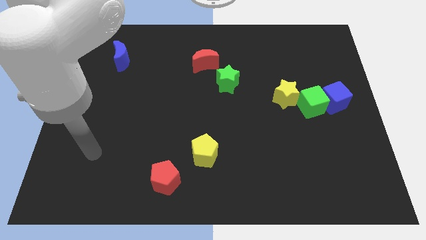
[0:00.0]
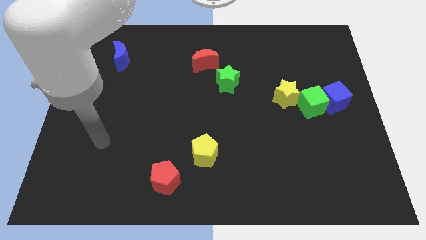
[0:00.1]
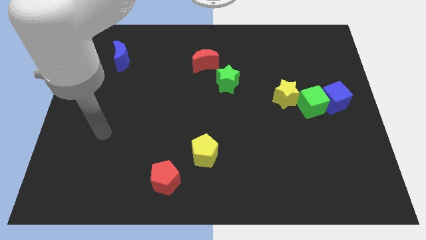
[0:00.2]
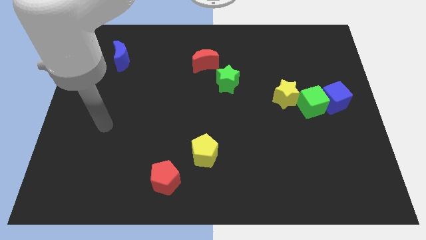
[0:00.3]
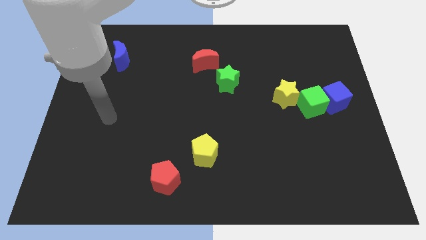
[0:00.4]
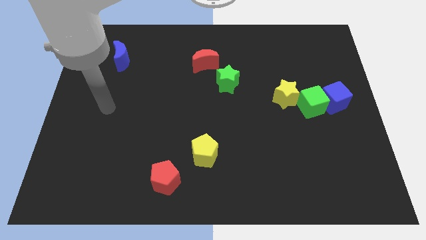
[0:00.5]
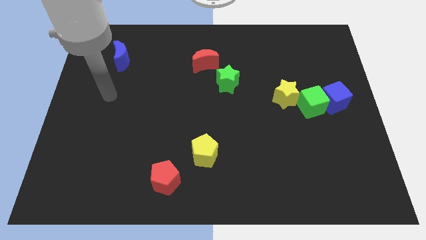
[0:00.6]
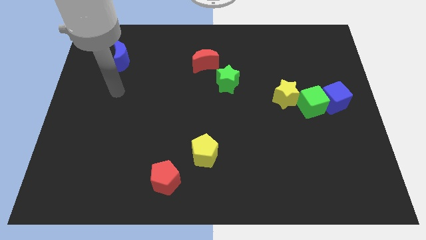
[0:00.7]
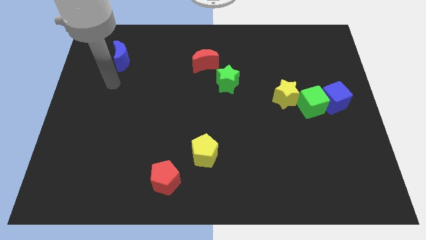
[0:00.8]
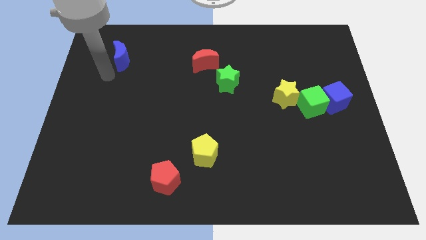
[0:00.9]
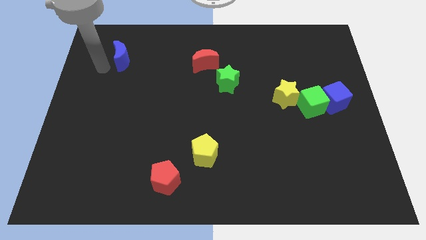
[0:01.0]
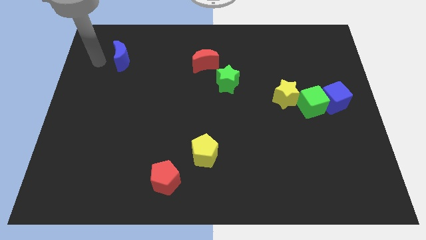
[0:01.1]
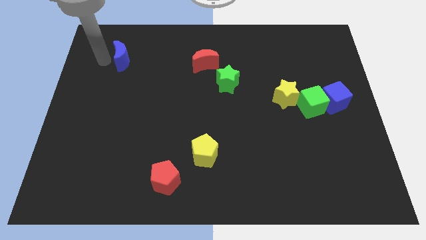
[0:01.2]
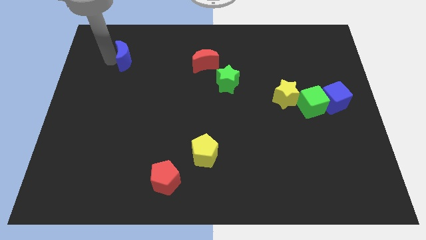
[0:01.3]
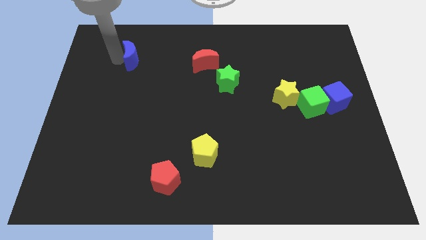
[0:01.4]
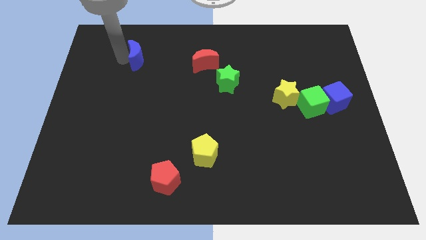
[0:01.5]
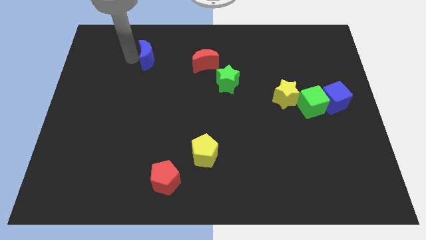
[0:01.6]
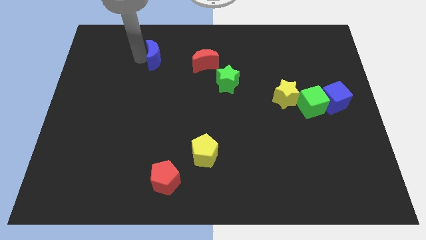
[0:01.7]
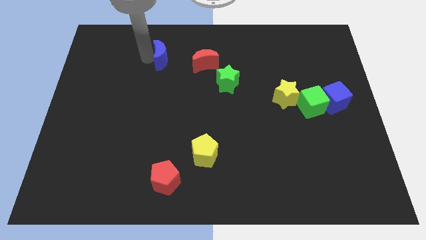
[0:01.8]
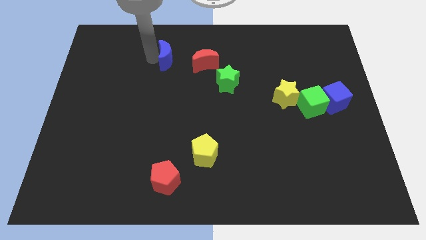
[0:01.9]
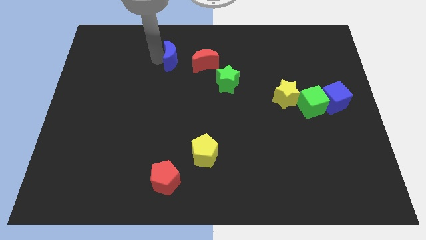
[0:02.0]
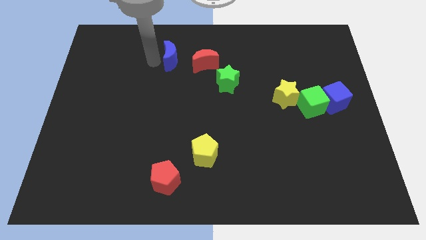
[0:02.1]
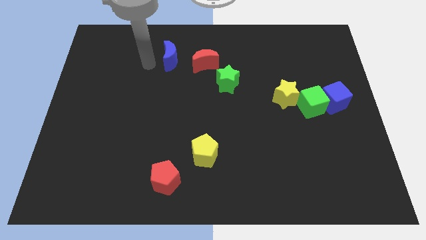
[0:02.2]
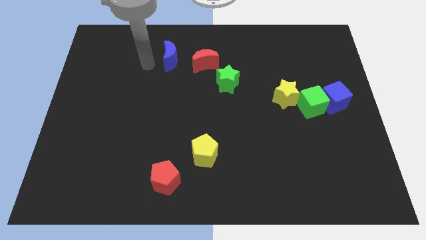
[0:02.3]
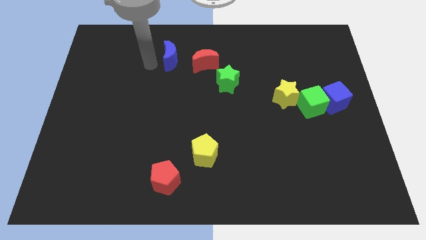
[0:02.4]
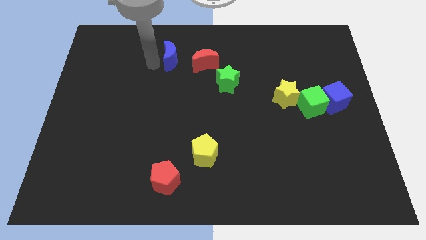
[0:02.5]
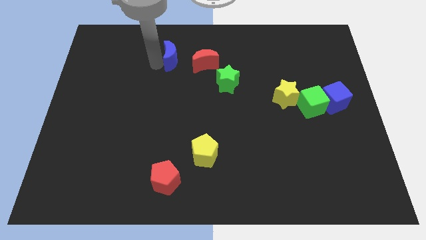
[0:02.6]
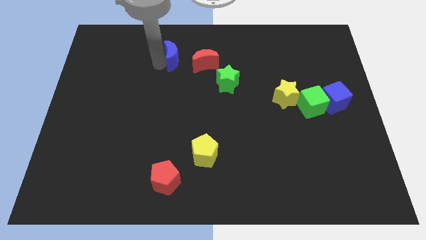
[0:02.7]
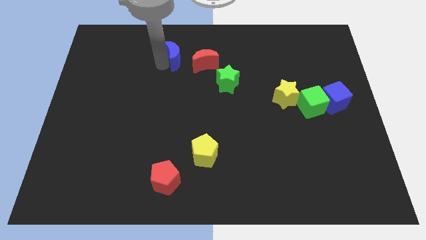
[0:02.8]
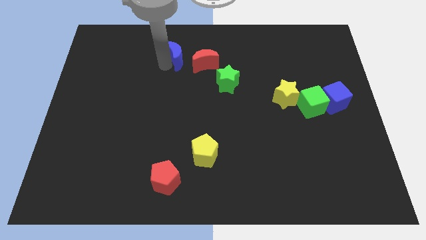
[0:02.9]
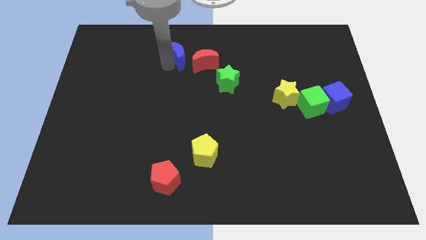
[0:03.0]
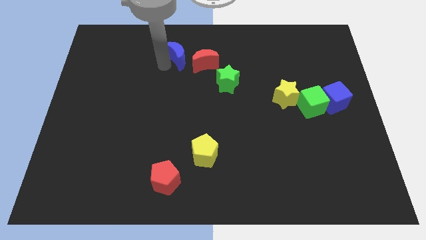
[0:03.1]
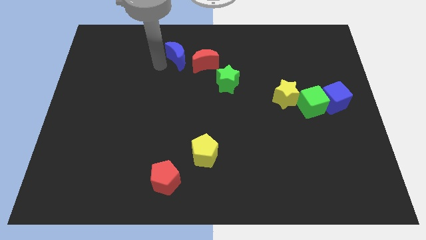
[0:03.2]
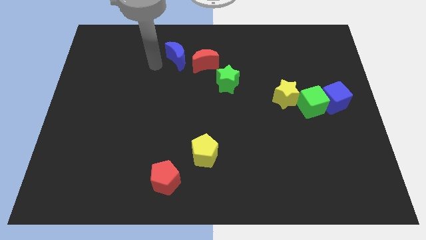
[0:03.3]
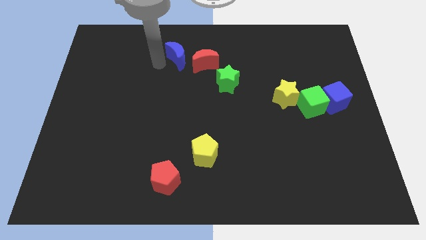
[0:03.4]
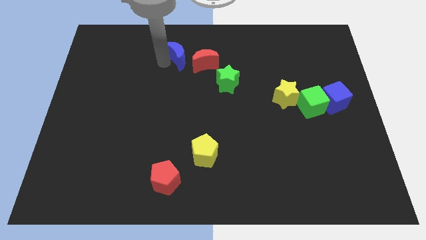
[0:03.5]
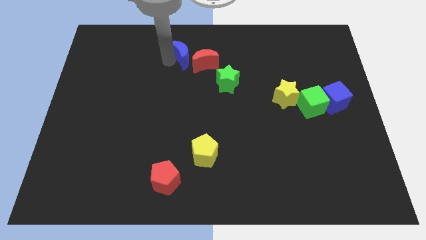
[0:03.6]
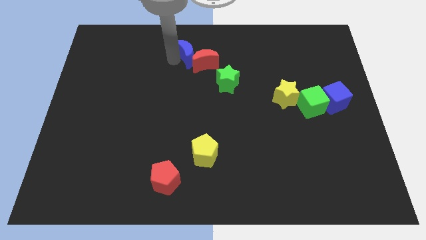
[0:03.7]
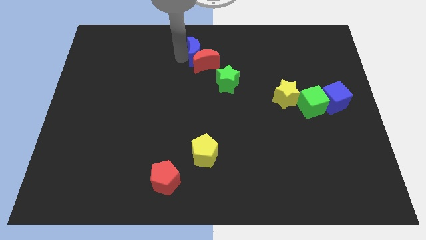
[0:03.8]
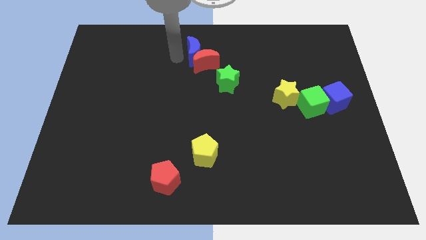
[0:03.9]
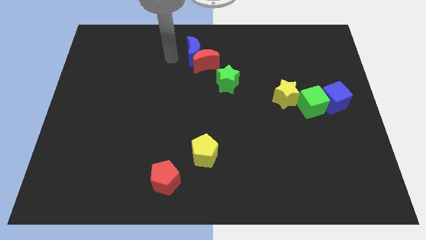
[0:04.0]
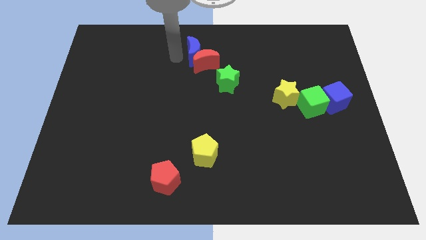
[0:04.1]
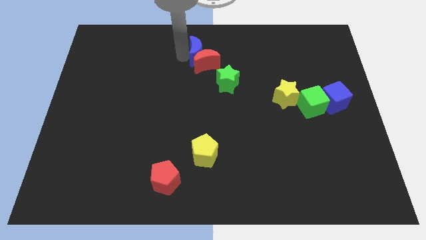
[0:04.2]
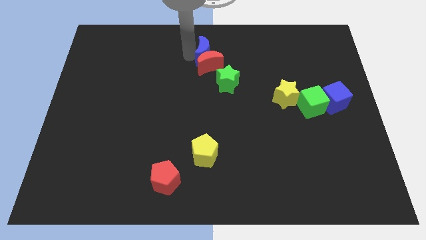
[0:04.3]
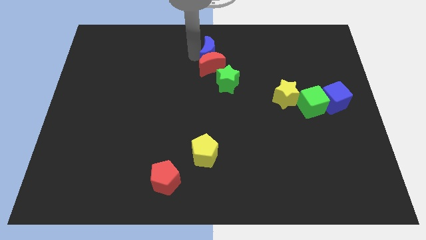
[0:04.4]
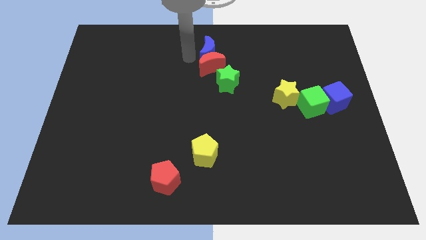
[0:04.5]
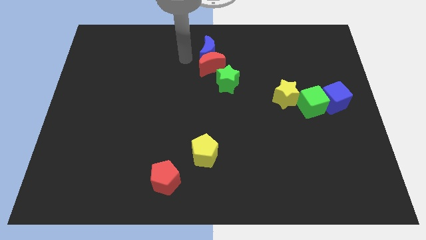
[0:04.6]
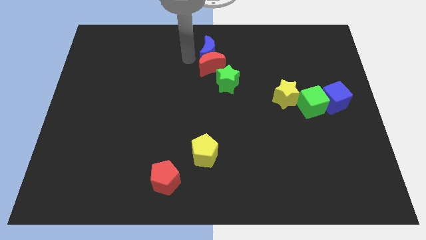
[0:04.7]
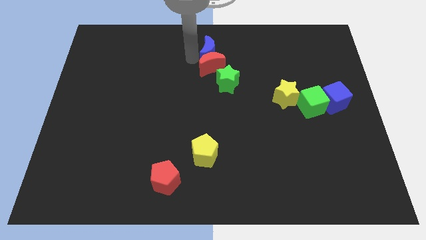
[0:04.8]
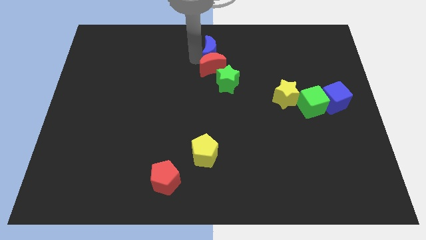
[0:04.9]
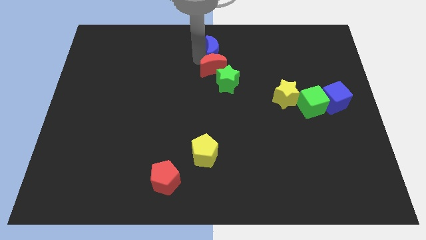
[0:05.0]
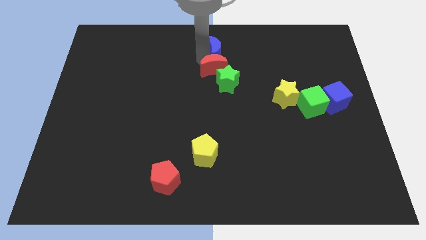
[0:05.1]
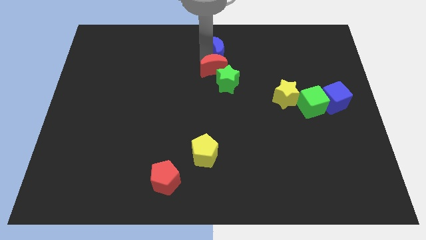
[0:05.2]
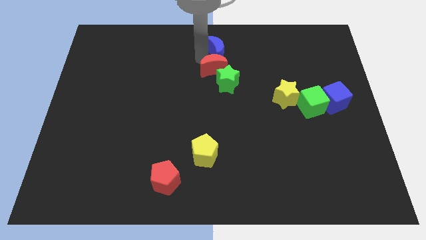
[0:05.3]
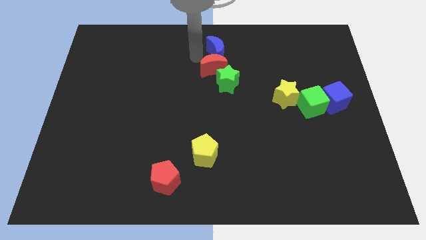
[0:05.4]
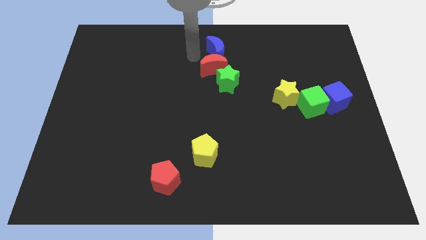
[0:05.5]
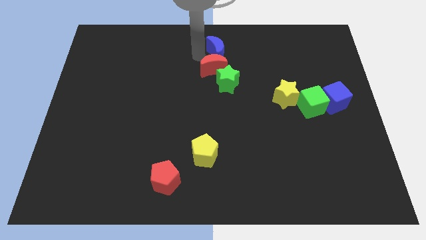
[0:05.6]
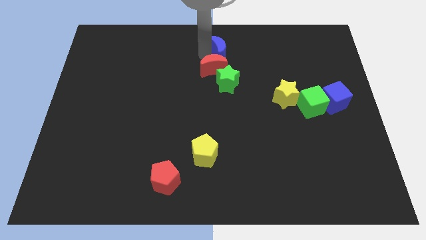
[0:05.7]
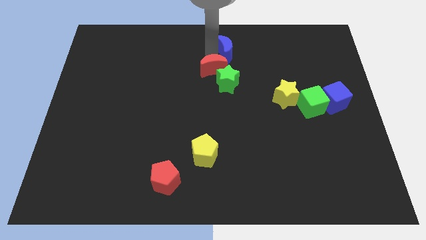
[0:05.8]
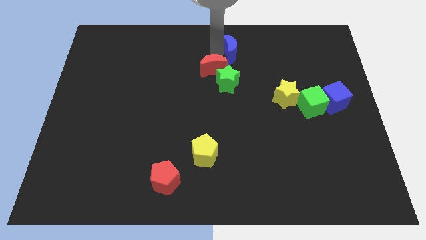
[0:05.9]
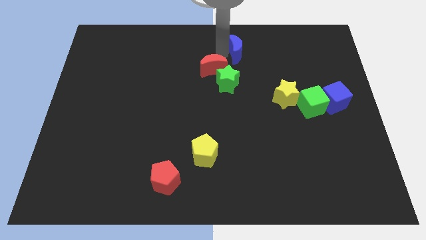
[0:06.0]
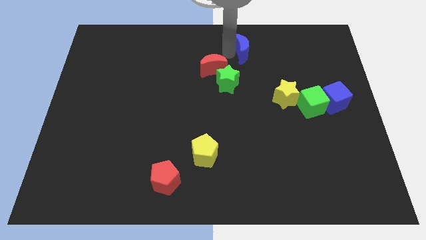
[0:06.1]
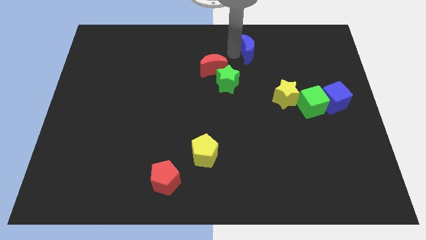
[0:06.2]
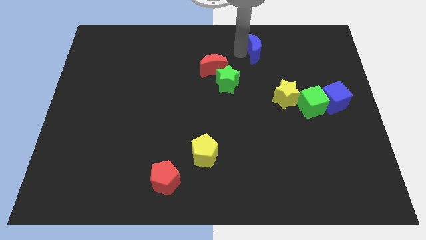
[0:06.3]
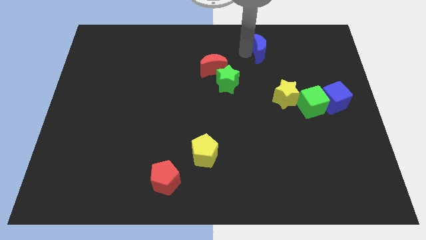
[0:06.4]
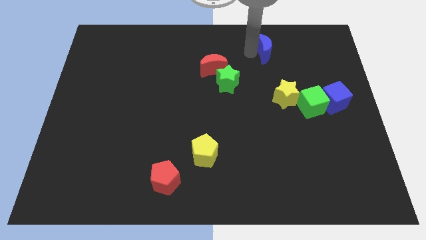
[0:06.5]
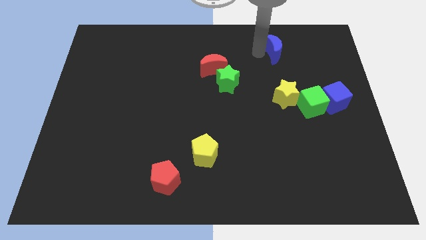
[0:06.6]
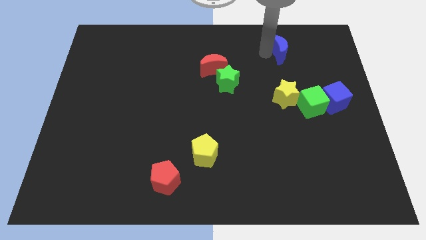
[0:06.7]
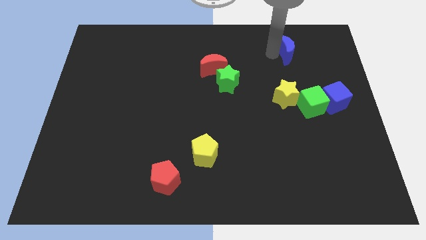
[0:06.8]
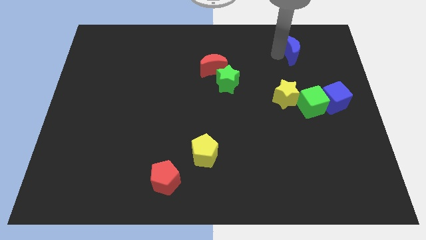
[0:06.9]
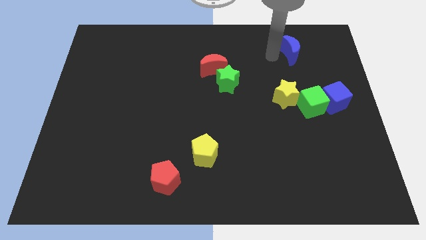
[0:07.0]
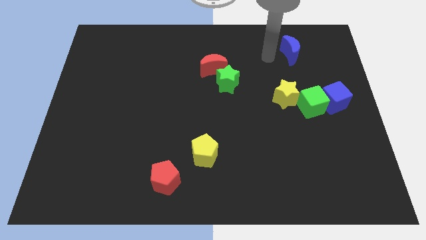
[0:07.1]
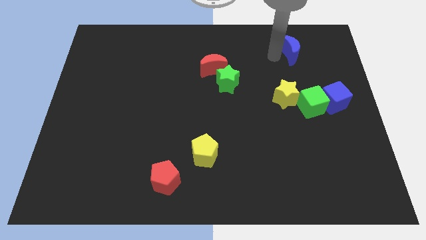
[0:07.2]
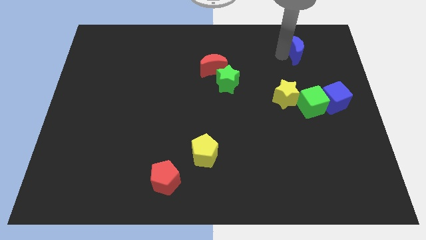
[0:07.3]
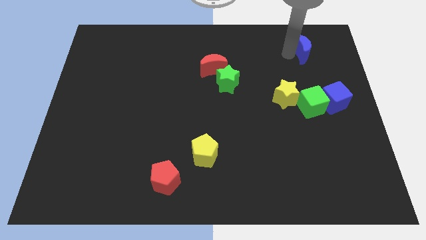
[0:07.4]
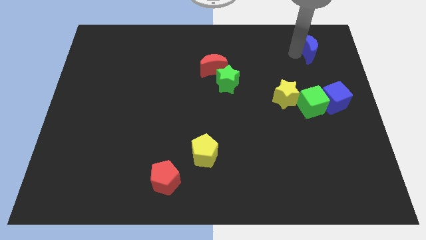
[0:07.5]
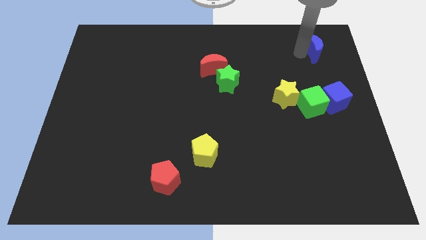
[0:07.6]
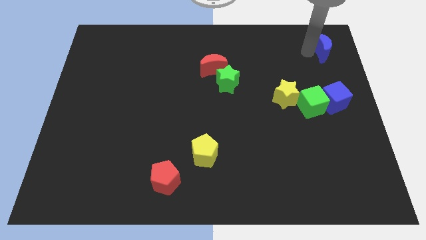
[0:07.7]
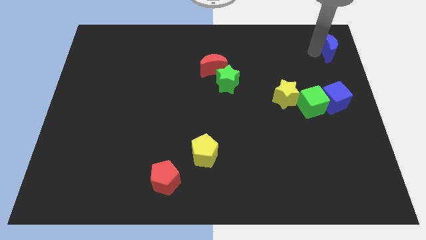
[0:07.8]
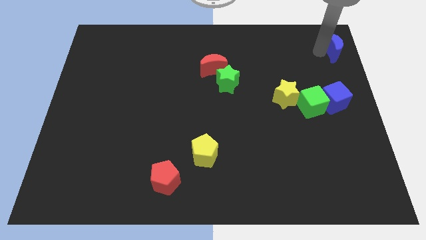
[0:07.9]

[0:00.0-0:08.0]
move the blue moon to the top right of the board
